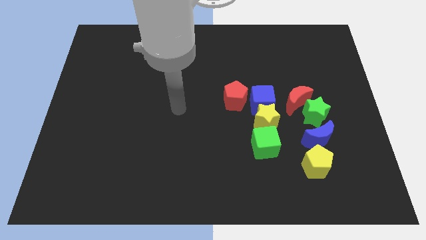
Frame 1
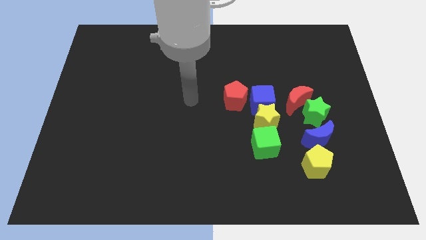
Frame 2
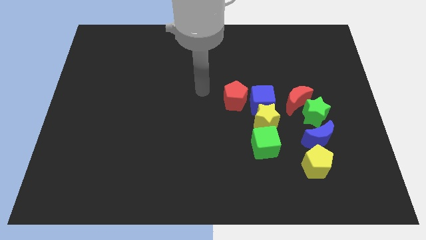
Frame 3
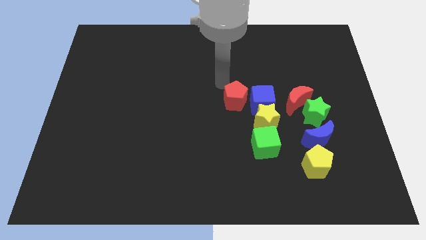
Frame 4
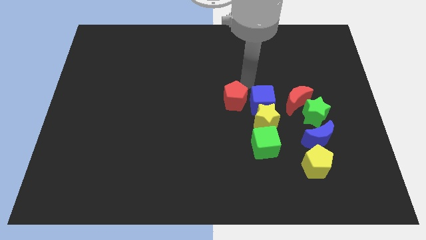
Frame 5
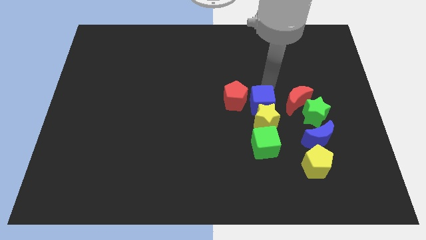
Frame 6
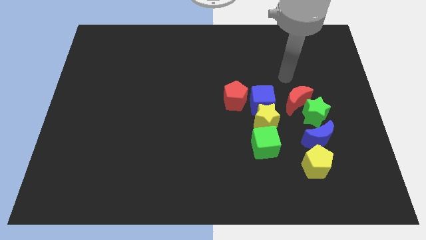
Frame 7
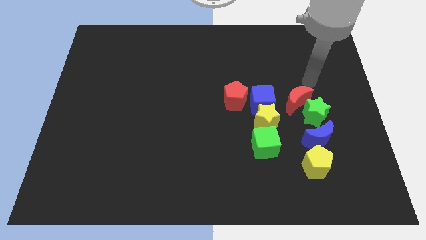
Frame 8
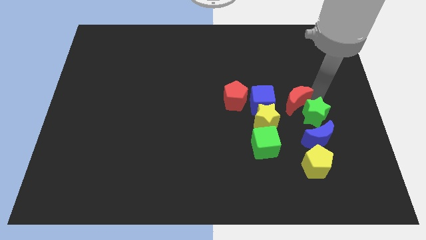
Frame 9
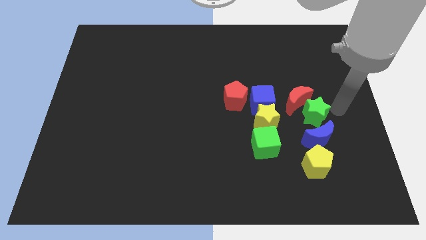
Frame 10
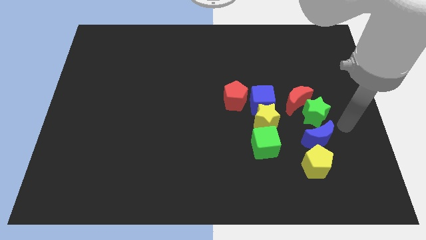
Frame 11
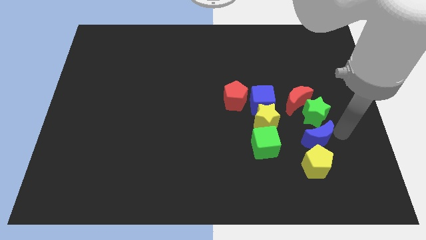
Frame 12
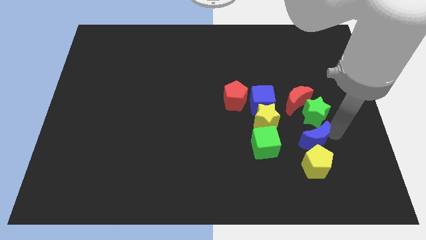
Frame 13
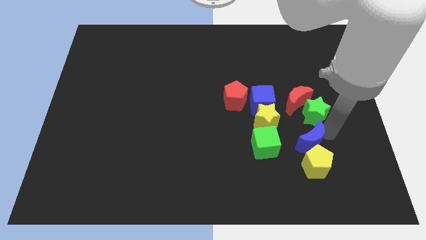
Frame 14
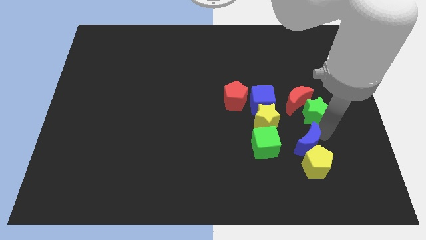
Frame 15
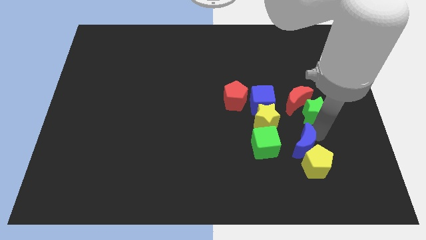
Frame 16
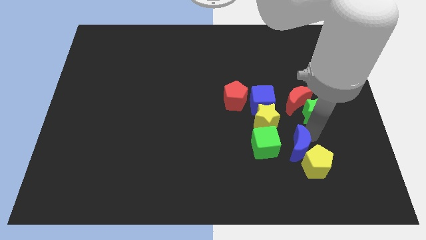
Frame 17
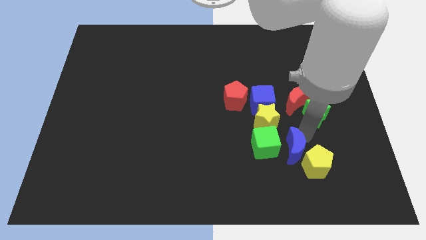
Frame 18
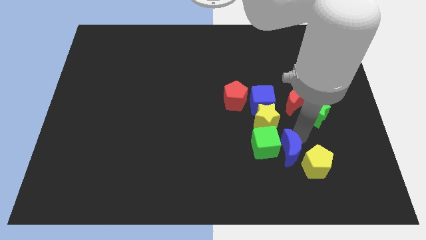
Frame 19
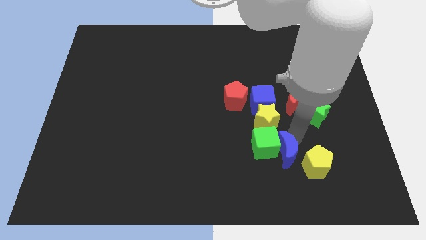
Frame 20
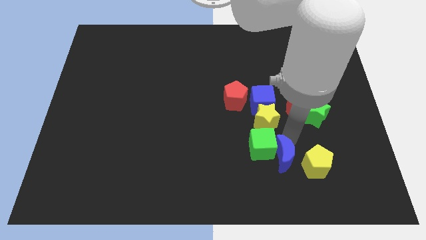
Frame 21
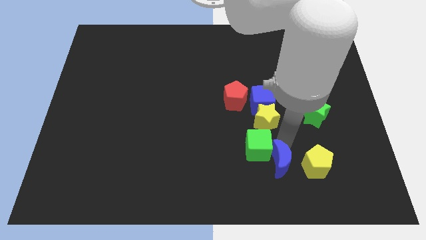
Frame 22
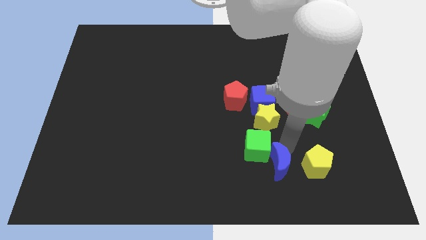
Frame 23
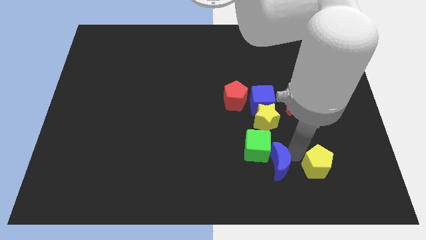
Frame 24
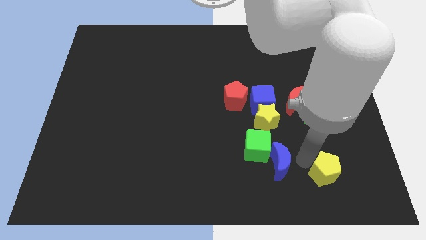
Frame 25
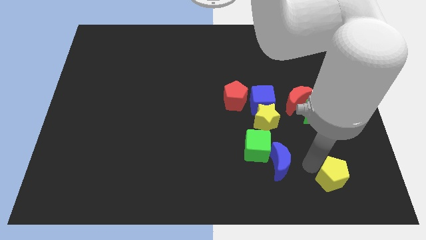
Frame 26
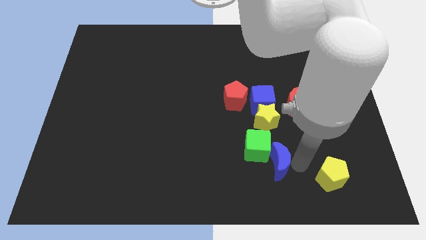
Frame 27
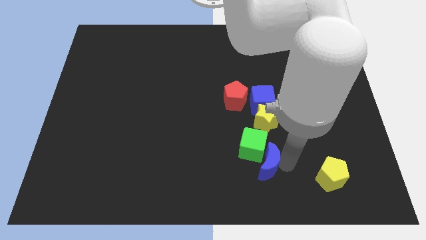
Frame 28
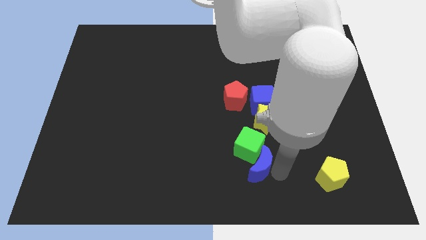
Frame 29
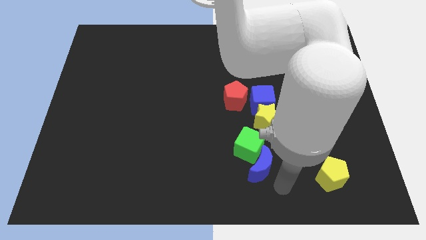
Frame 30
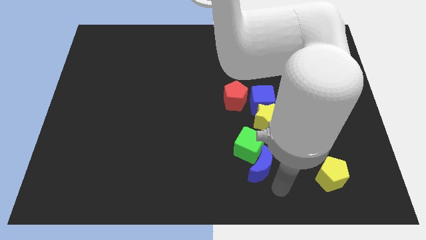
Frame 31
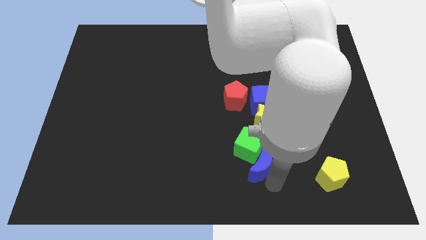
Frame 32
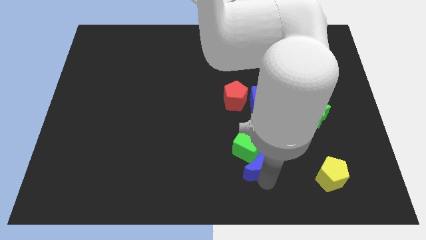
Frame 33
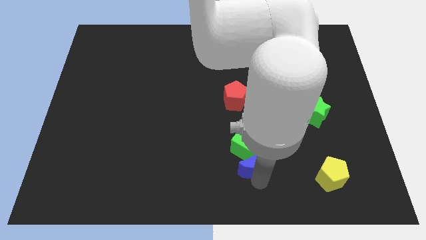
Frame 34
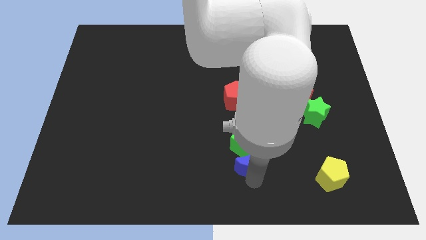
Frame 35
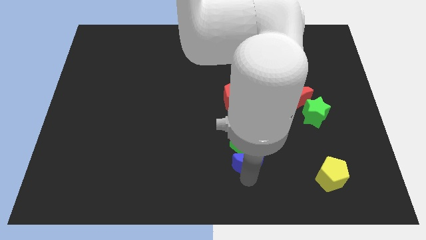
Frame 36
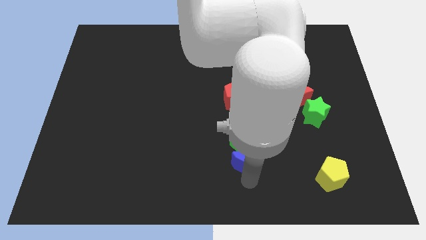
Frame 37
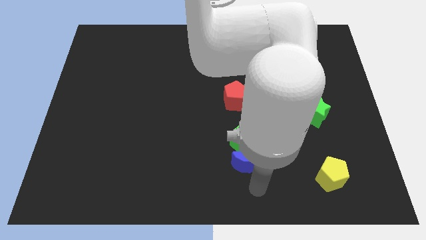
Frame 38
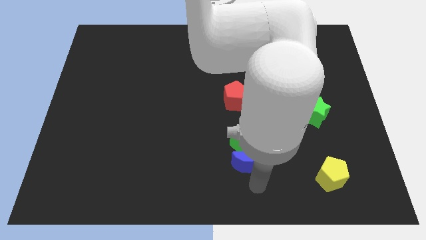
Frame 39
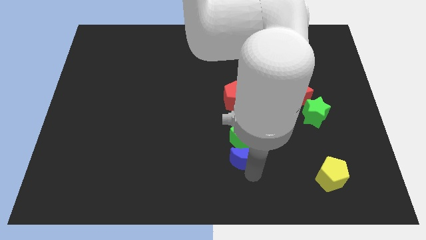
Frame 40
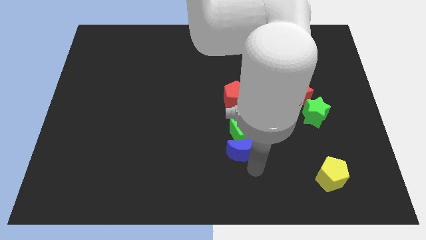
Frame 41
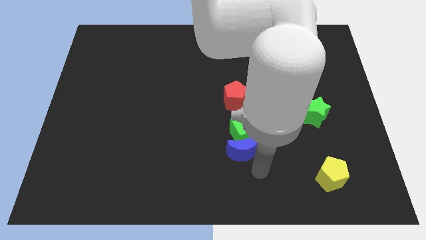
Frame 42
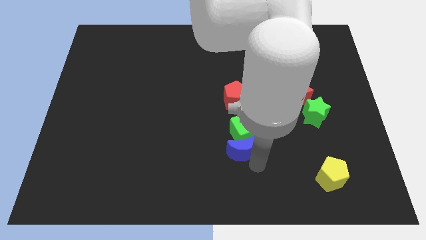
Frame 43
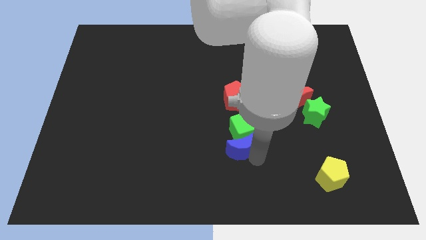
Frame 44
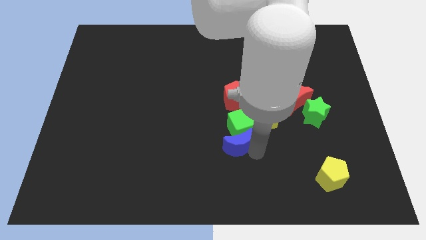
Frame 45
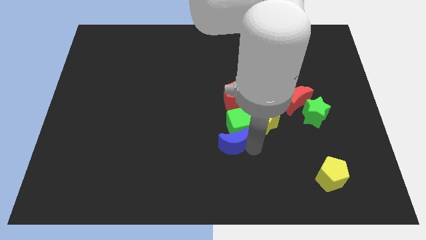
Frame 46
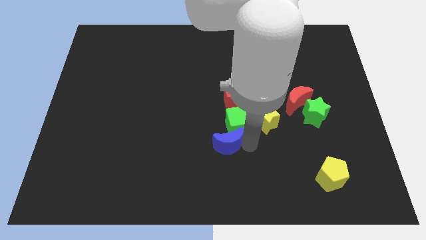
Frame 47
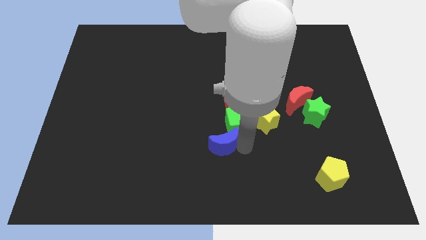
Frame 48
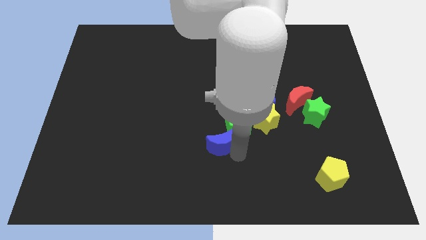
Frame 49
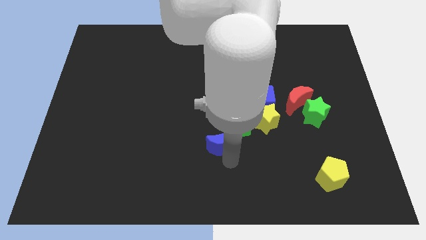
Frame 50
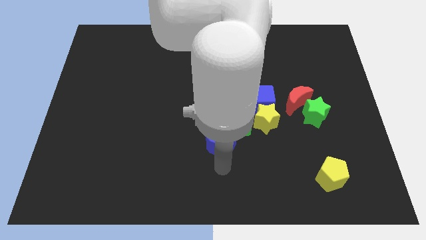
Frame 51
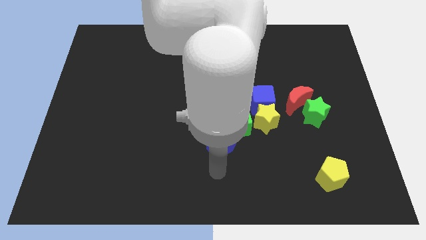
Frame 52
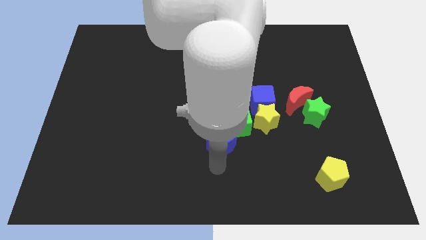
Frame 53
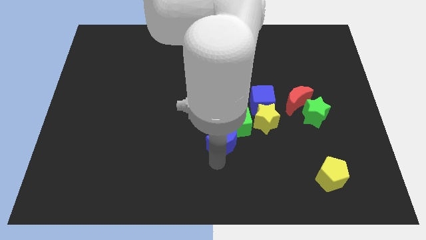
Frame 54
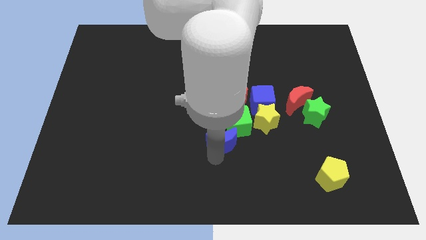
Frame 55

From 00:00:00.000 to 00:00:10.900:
push the blue moon to the middle
